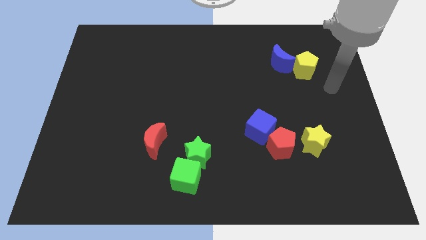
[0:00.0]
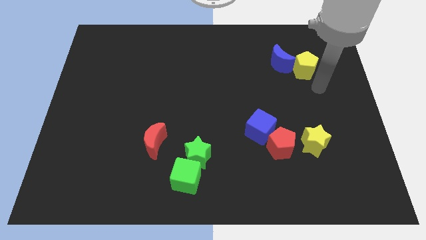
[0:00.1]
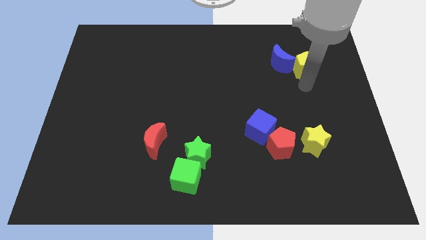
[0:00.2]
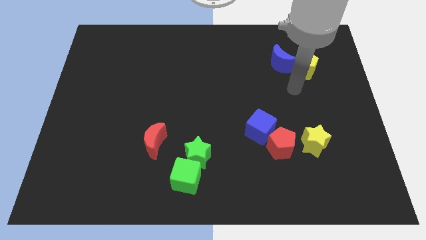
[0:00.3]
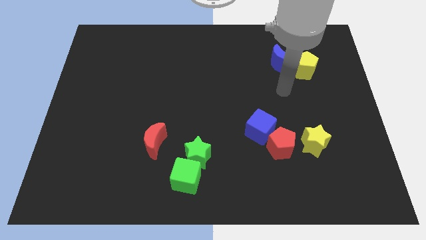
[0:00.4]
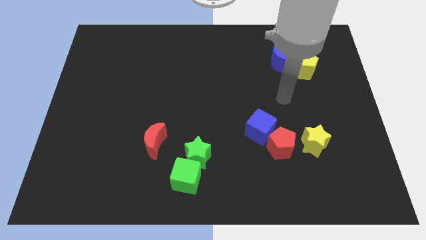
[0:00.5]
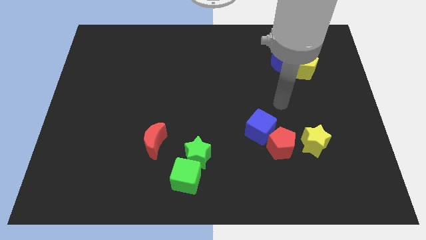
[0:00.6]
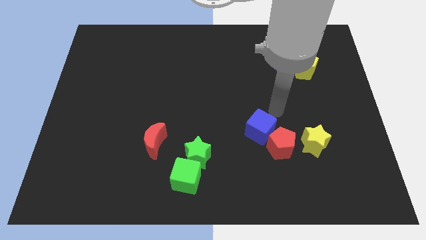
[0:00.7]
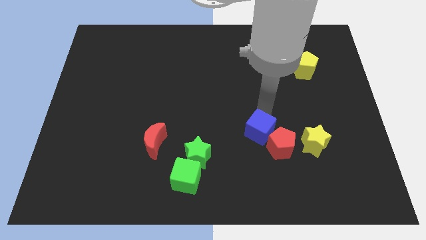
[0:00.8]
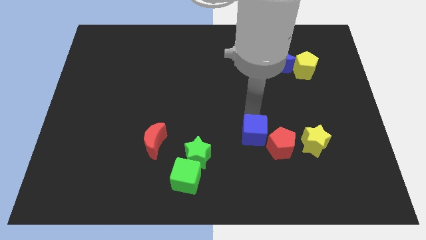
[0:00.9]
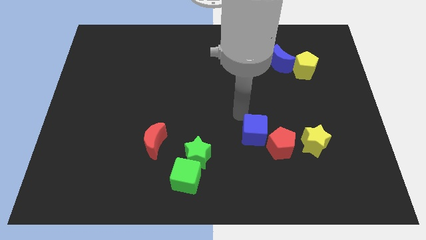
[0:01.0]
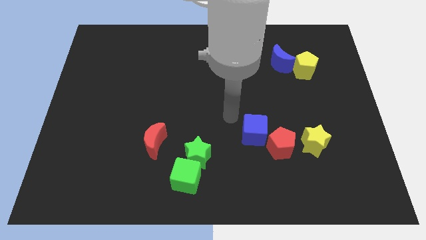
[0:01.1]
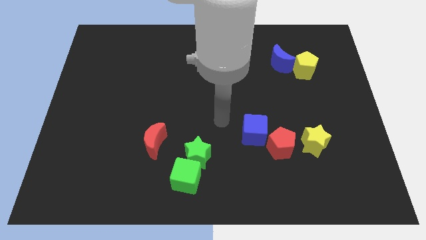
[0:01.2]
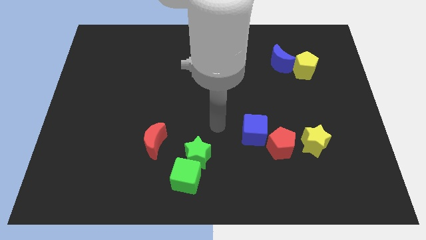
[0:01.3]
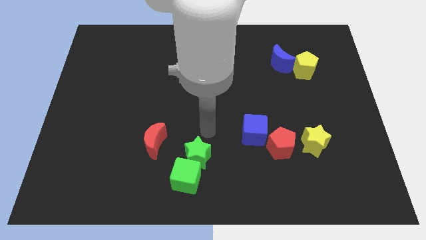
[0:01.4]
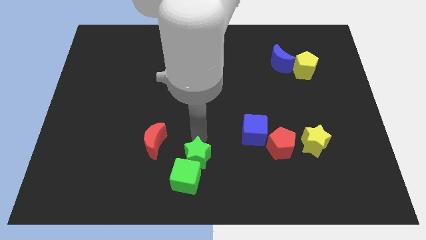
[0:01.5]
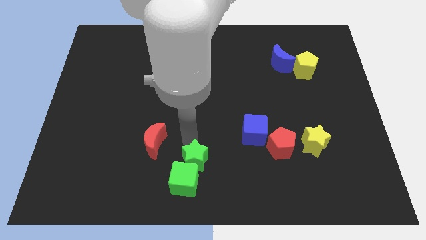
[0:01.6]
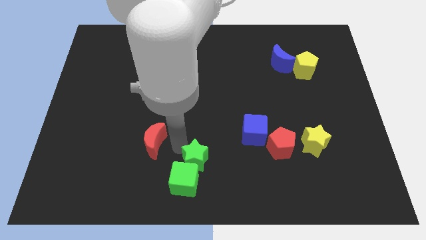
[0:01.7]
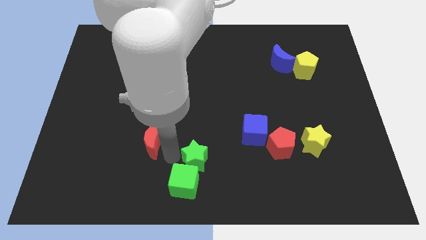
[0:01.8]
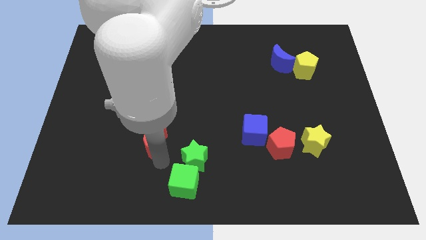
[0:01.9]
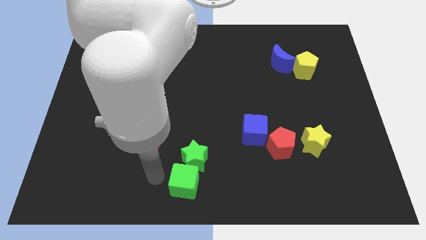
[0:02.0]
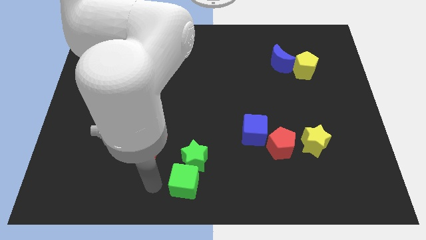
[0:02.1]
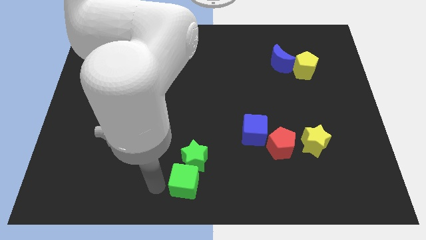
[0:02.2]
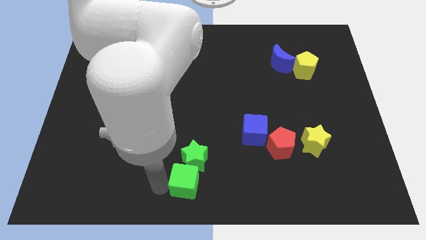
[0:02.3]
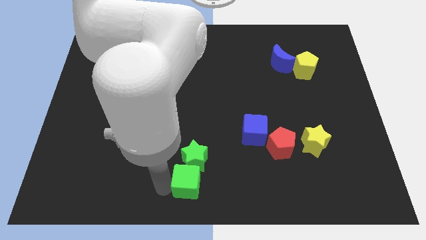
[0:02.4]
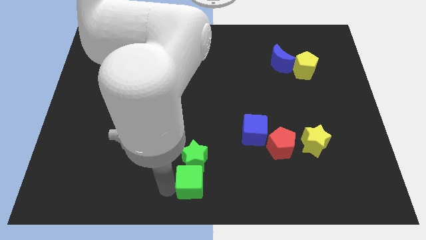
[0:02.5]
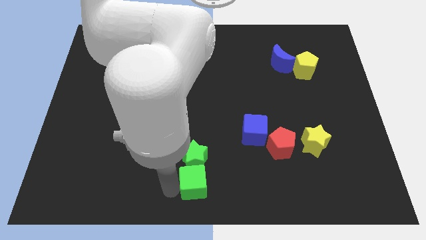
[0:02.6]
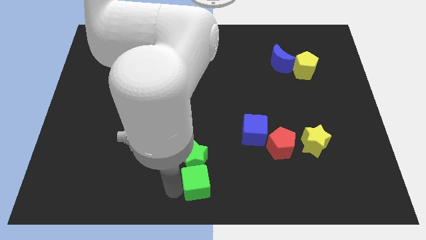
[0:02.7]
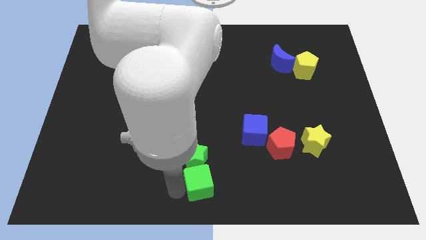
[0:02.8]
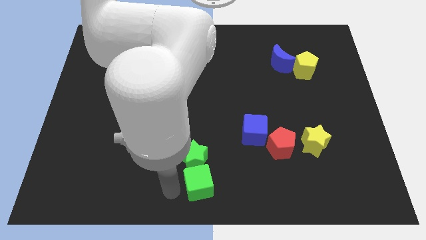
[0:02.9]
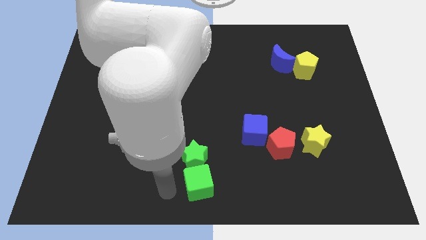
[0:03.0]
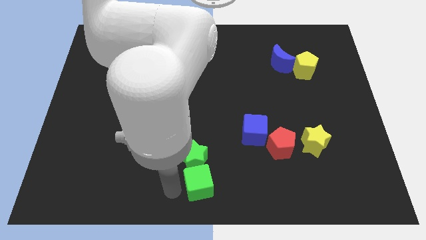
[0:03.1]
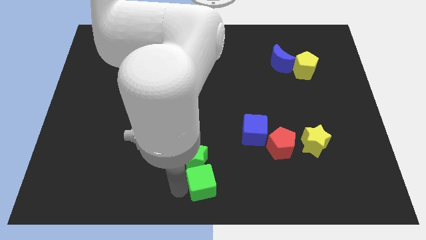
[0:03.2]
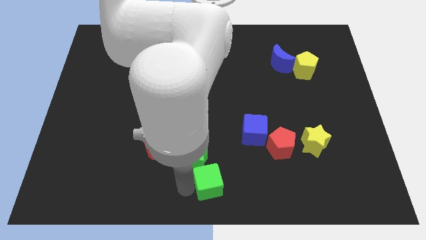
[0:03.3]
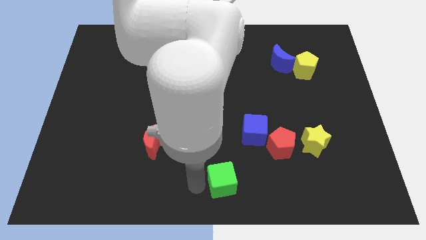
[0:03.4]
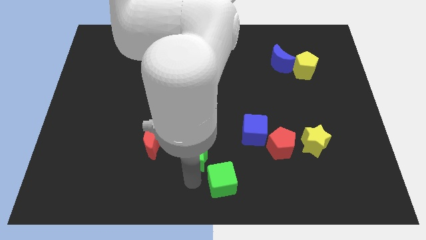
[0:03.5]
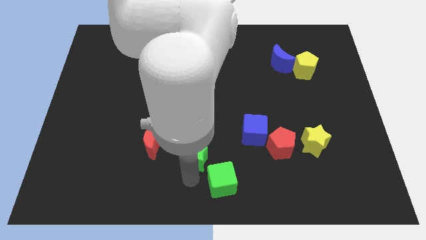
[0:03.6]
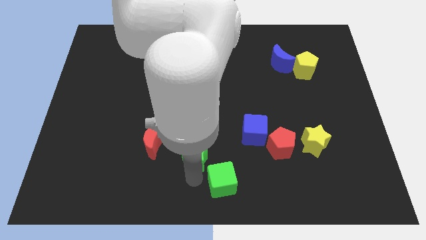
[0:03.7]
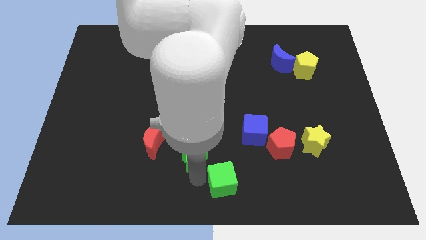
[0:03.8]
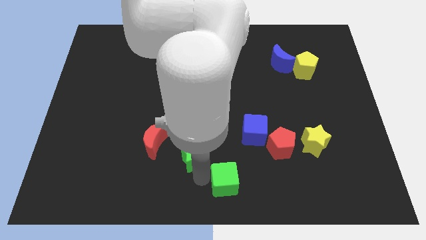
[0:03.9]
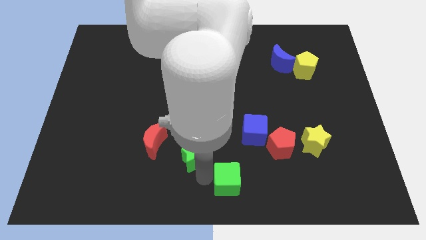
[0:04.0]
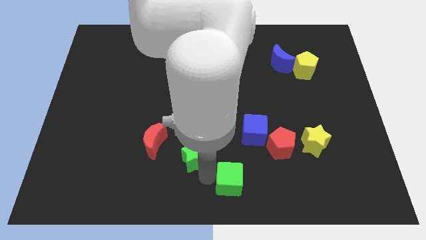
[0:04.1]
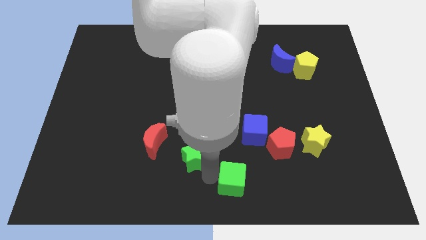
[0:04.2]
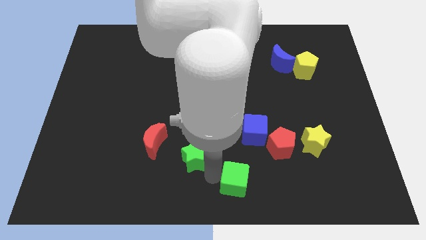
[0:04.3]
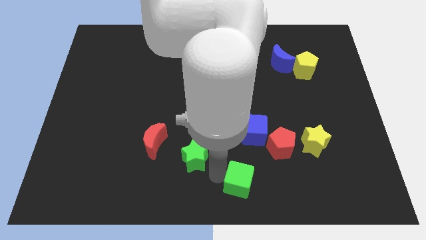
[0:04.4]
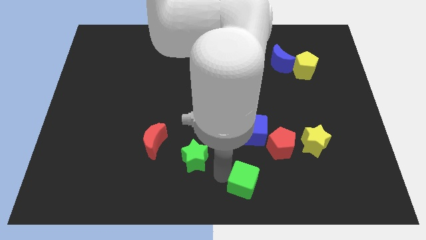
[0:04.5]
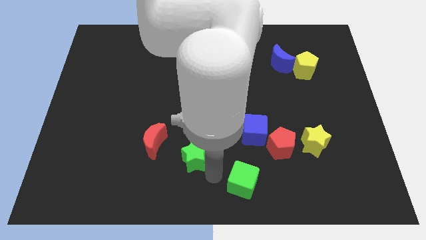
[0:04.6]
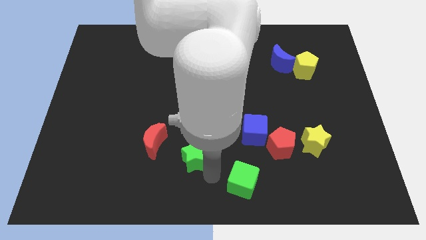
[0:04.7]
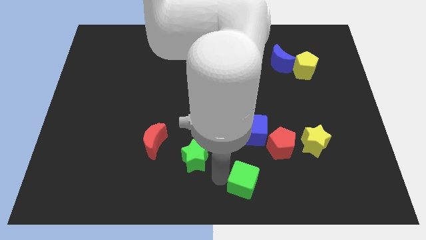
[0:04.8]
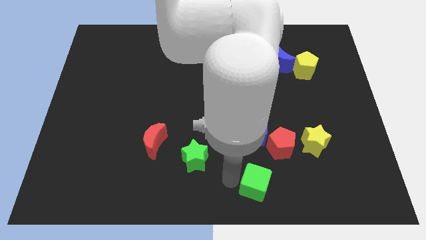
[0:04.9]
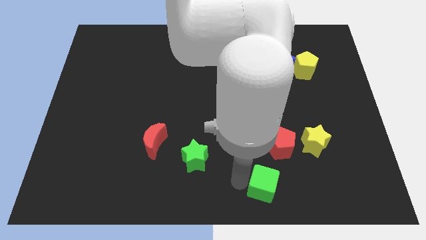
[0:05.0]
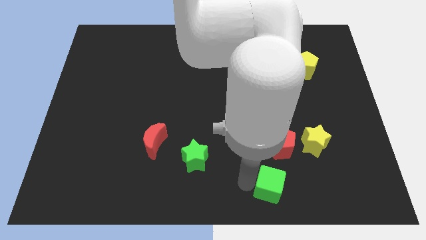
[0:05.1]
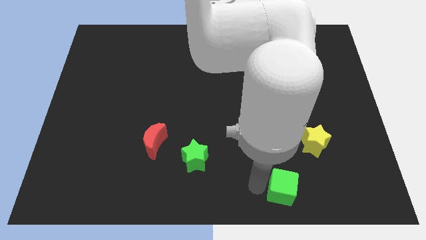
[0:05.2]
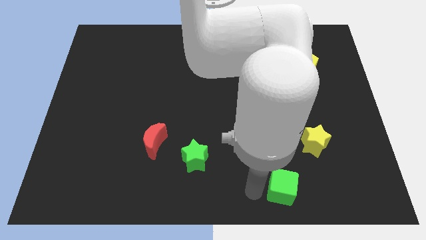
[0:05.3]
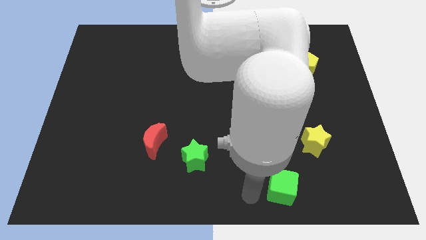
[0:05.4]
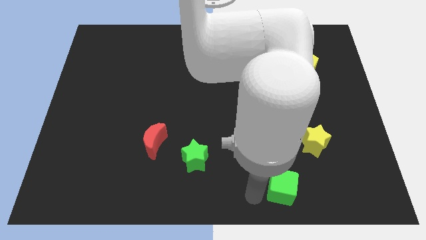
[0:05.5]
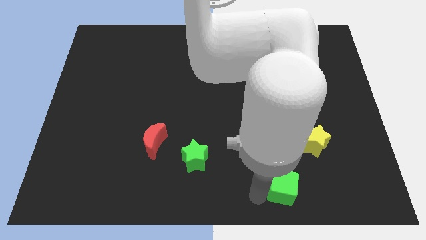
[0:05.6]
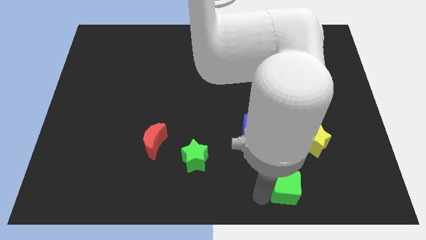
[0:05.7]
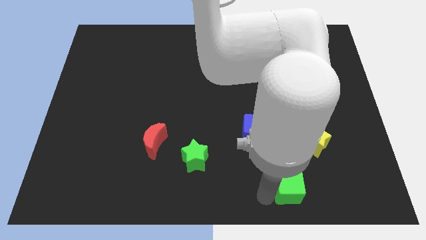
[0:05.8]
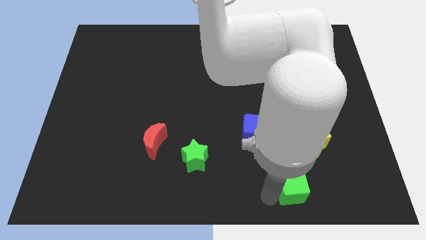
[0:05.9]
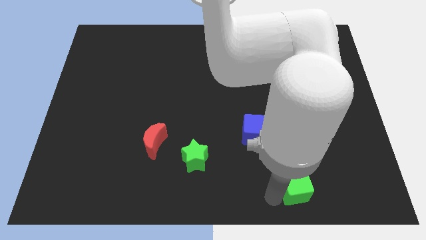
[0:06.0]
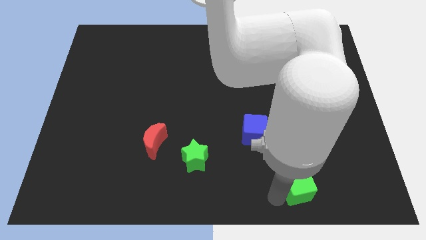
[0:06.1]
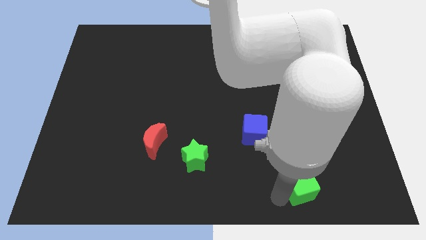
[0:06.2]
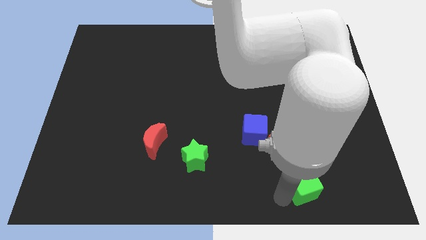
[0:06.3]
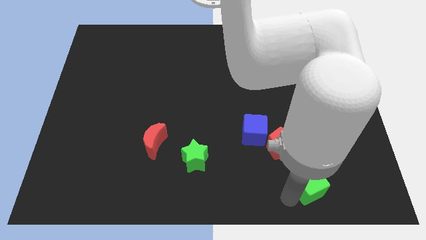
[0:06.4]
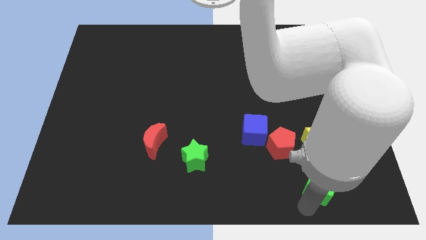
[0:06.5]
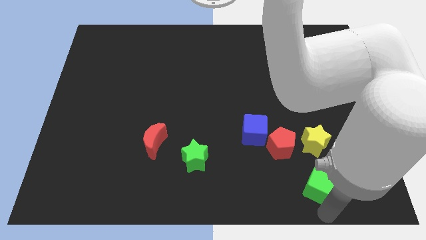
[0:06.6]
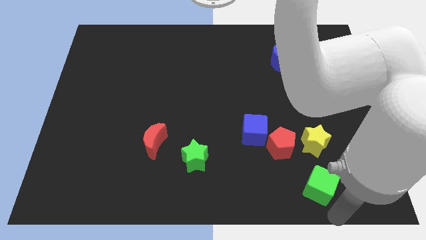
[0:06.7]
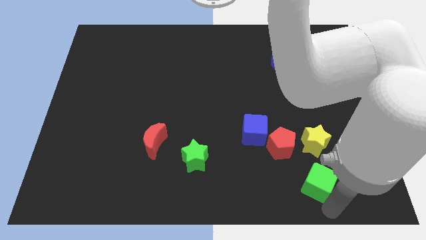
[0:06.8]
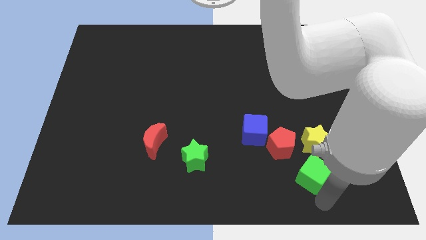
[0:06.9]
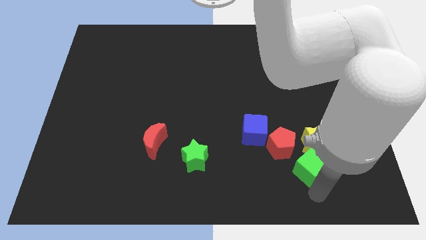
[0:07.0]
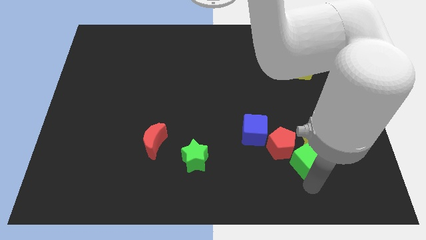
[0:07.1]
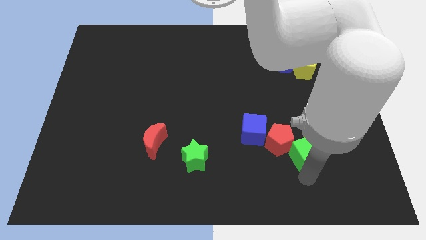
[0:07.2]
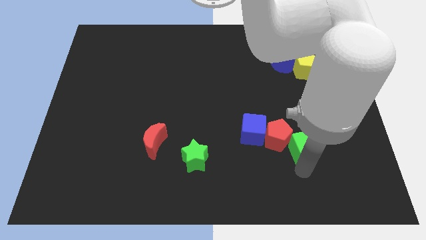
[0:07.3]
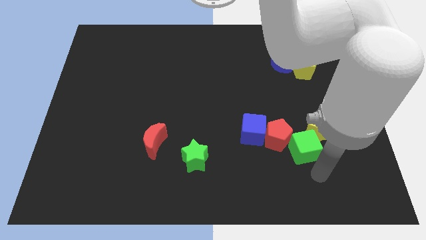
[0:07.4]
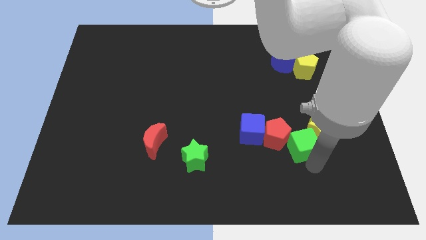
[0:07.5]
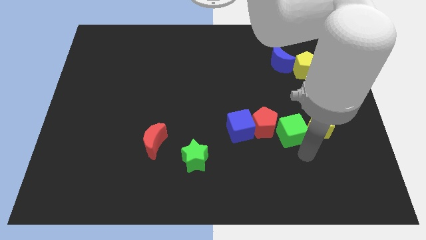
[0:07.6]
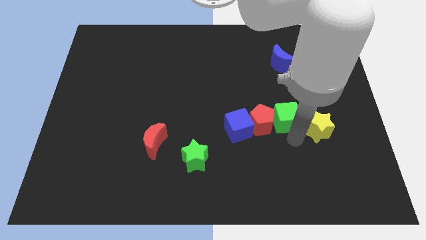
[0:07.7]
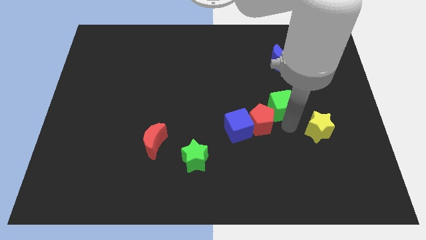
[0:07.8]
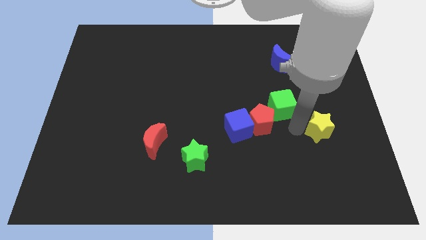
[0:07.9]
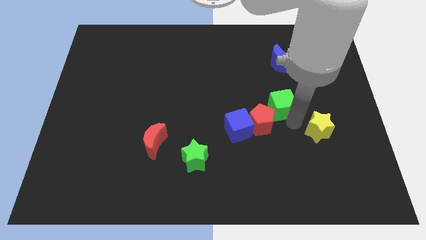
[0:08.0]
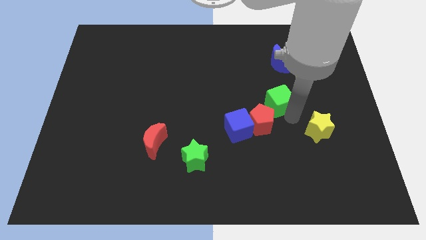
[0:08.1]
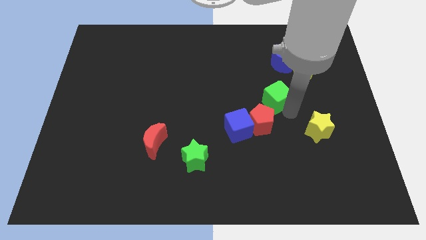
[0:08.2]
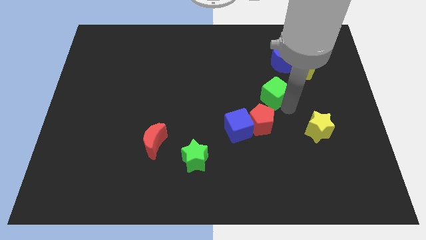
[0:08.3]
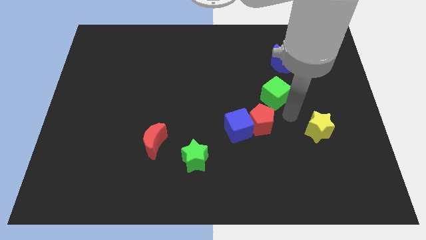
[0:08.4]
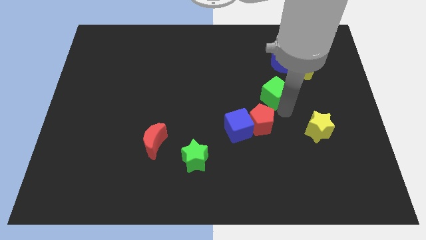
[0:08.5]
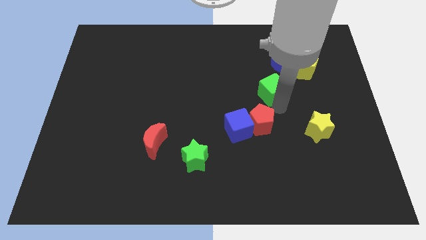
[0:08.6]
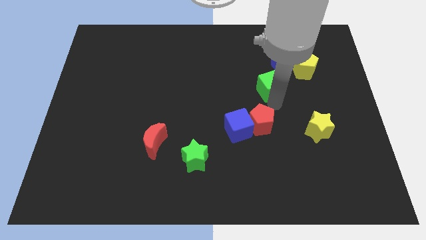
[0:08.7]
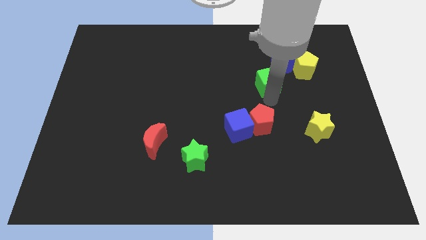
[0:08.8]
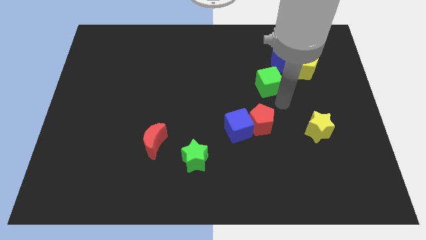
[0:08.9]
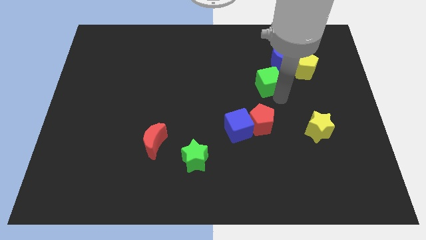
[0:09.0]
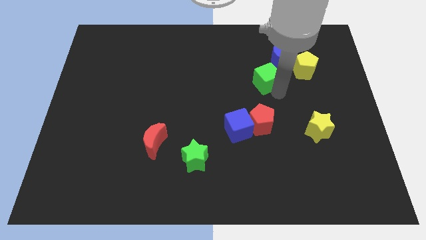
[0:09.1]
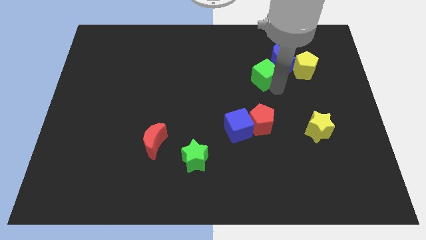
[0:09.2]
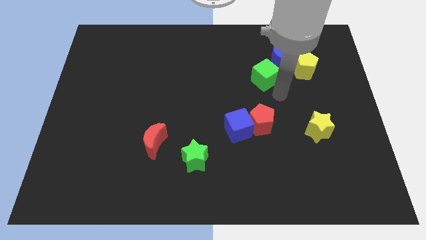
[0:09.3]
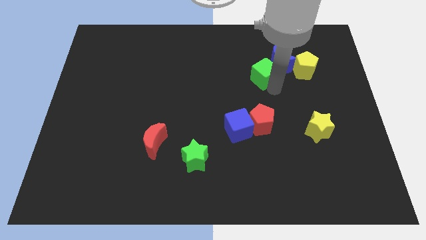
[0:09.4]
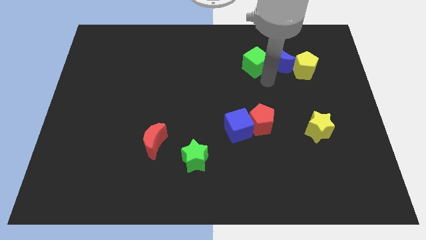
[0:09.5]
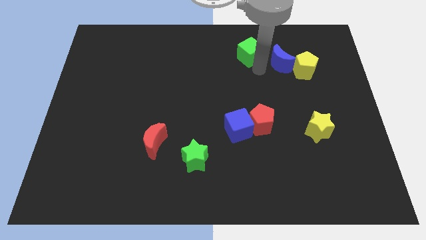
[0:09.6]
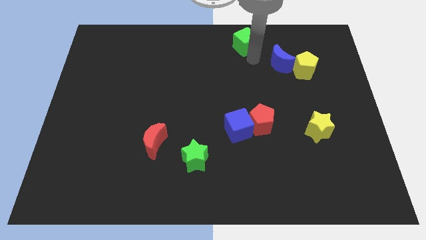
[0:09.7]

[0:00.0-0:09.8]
put the green cube to the top
